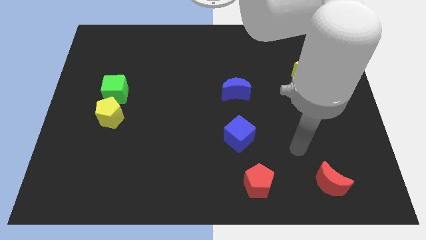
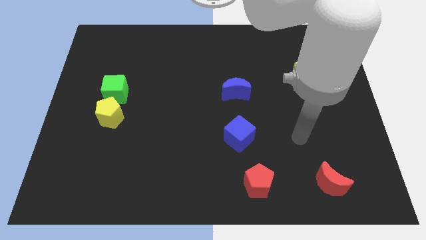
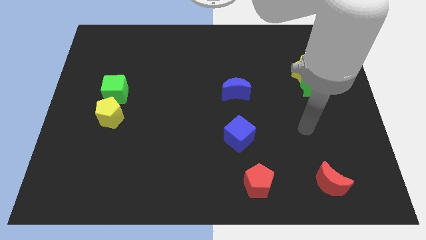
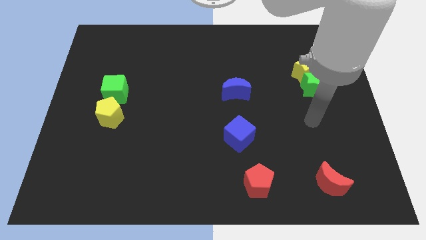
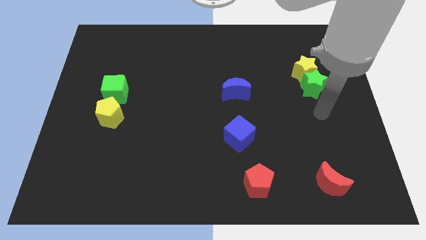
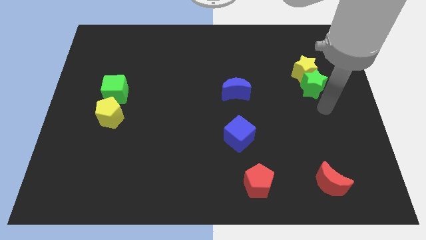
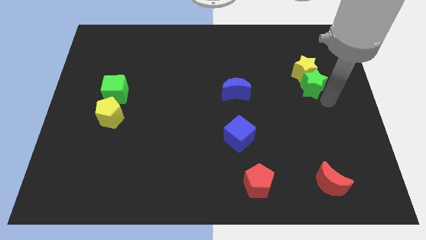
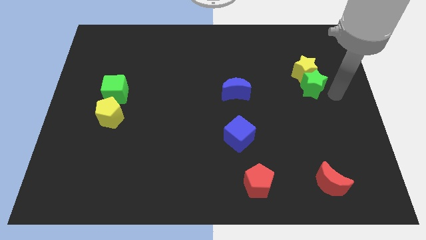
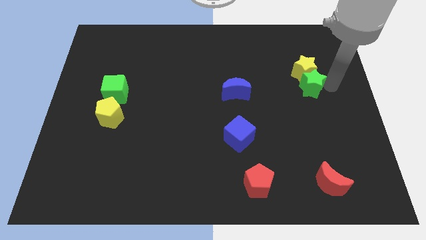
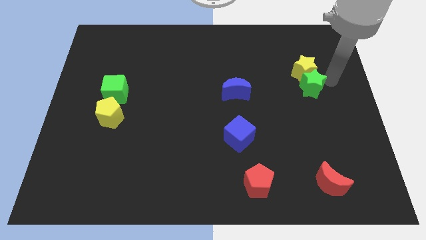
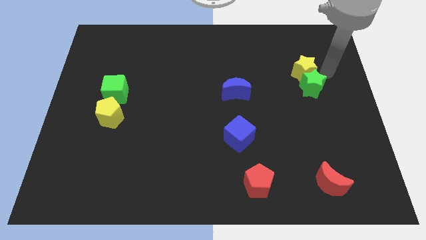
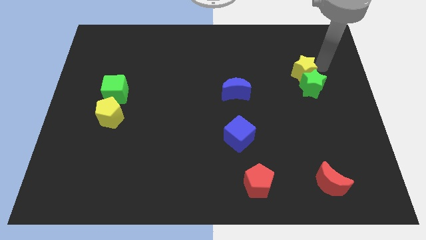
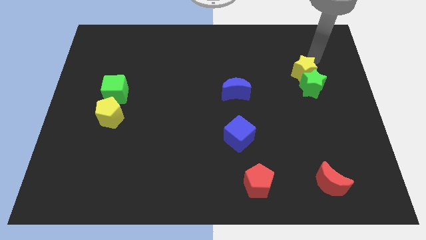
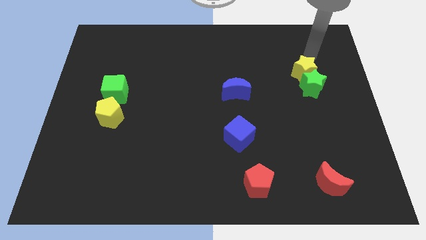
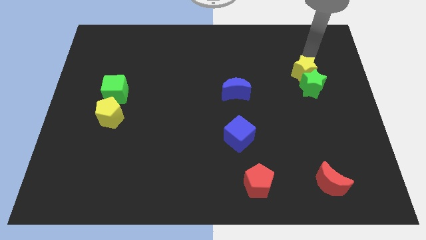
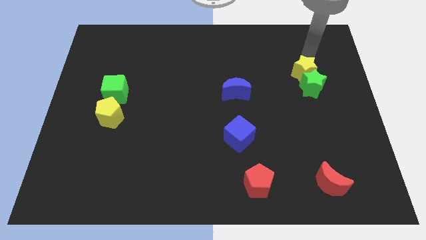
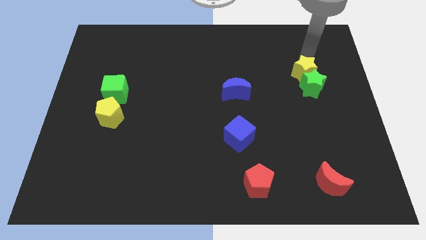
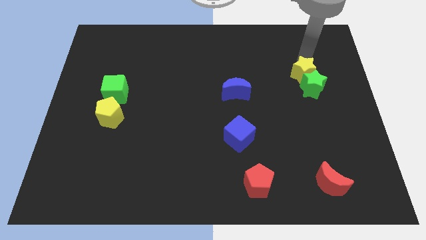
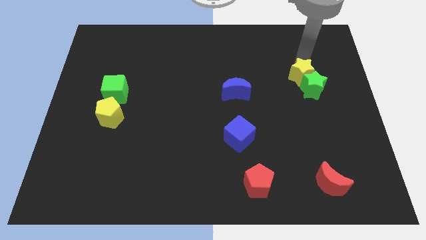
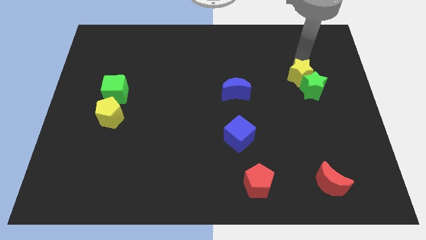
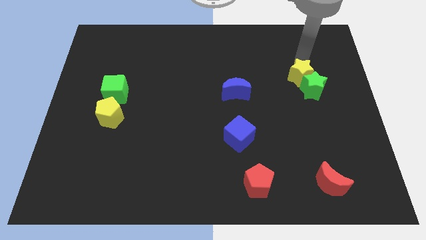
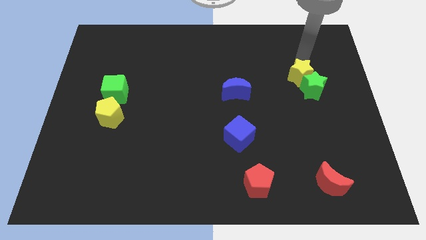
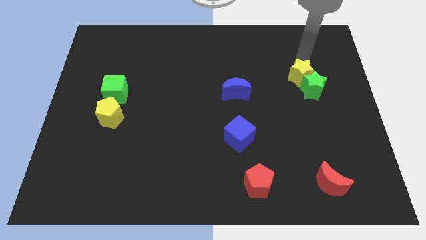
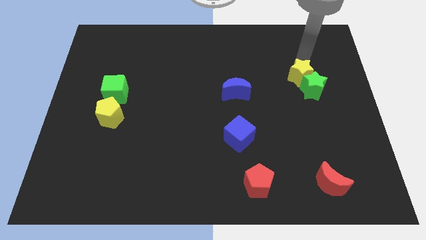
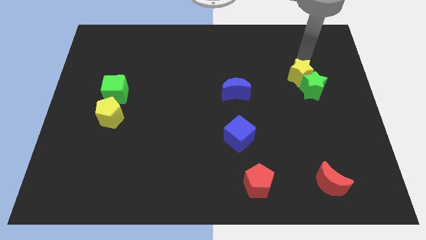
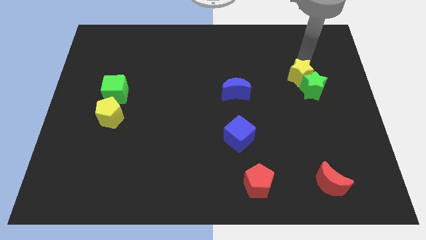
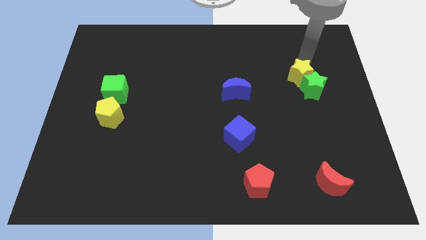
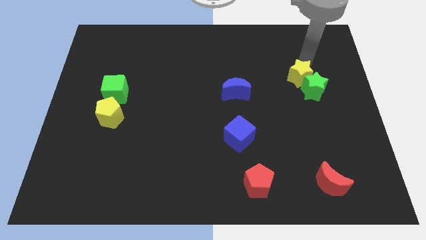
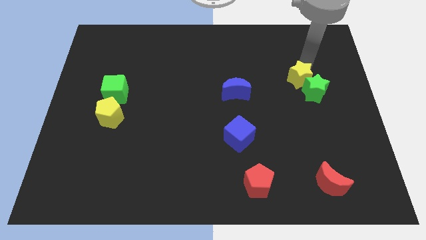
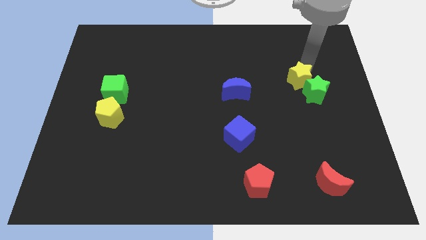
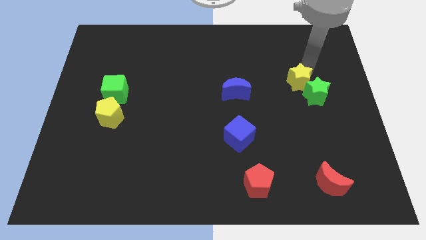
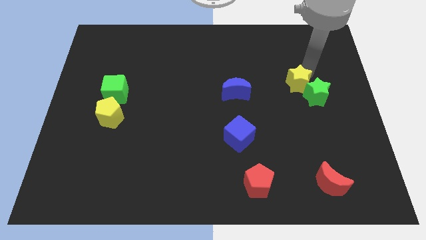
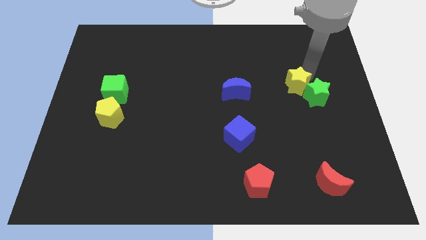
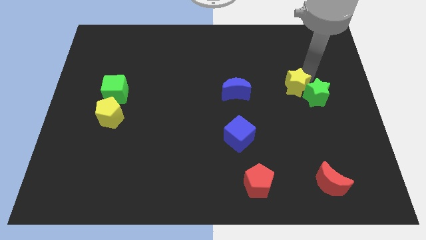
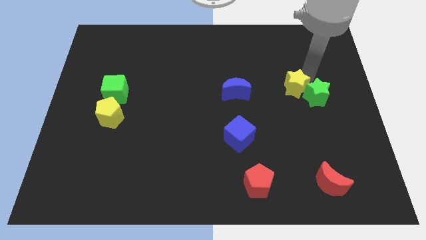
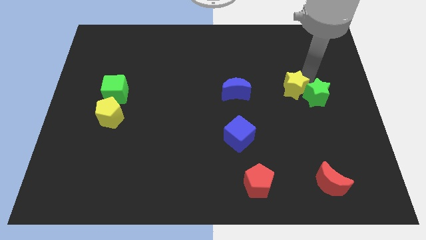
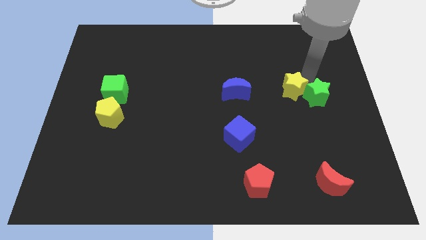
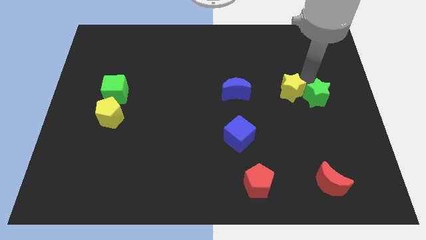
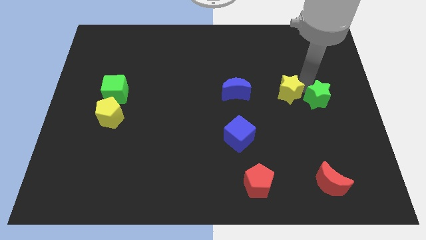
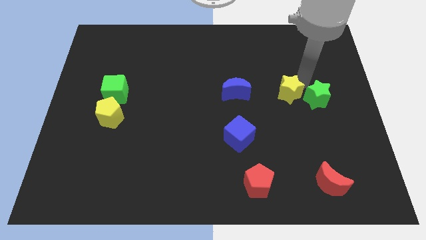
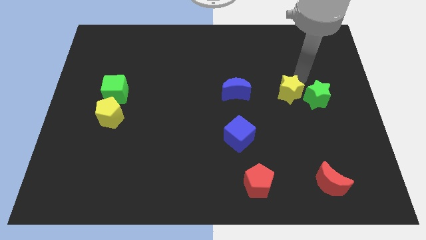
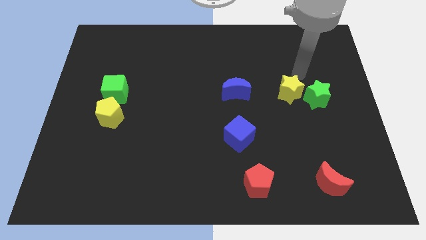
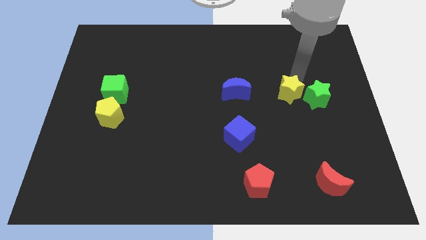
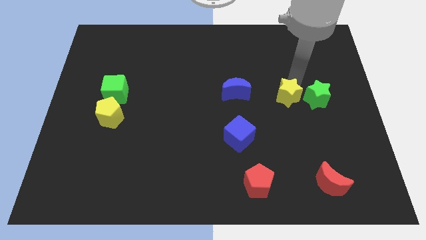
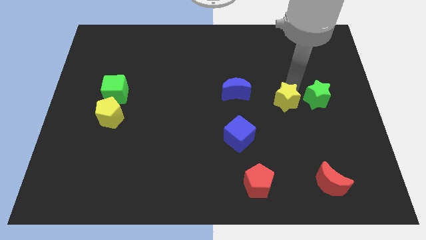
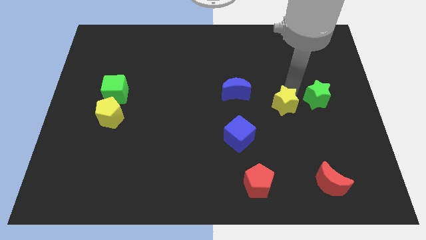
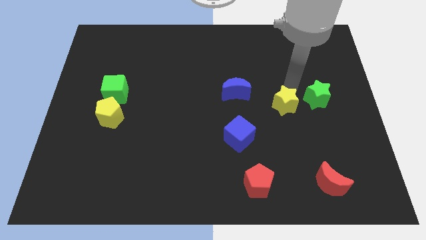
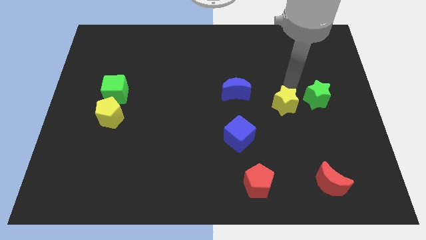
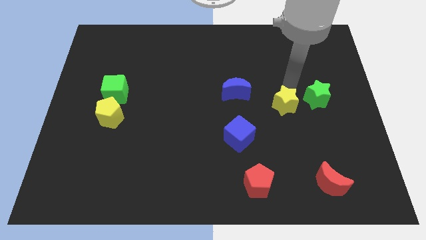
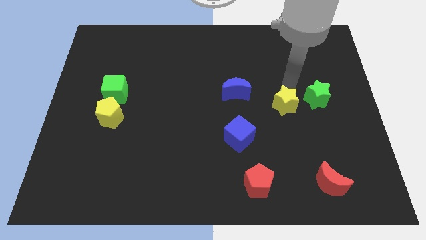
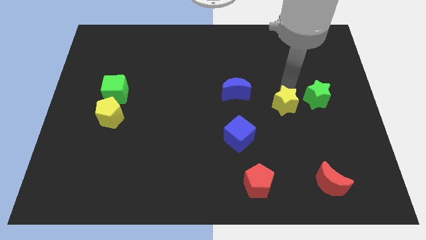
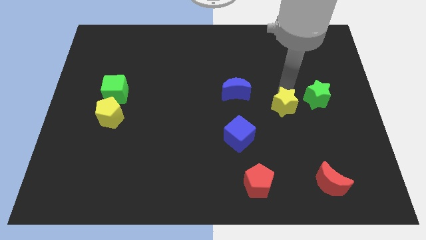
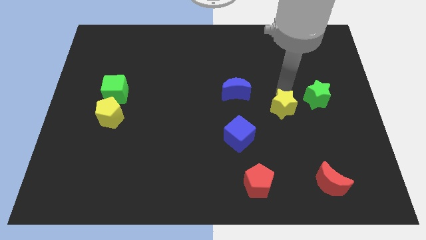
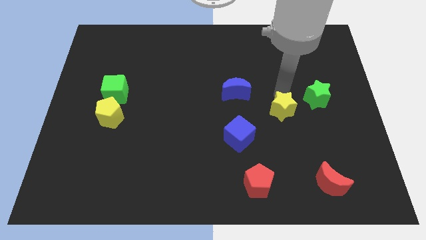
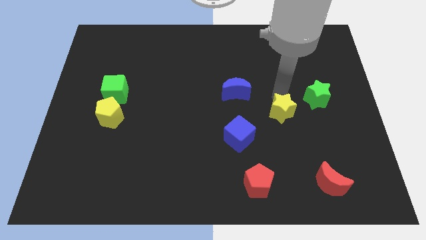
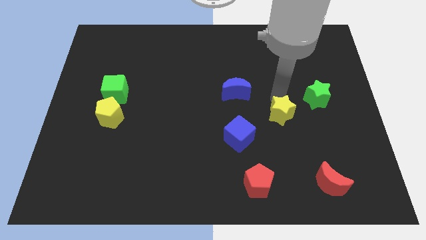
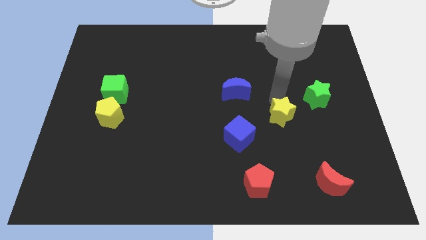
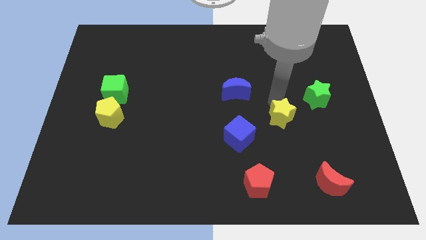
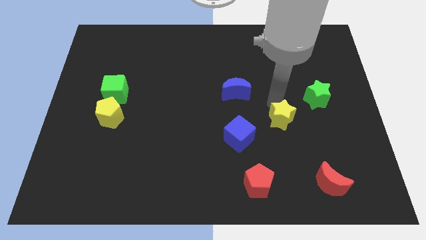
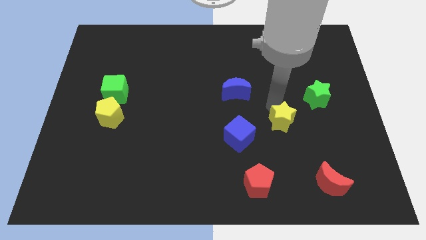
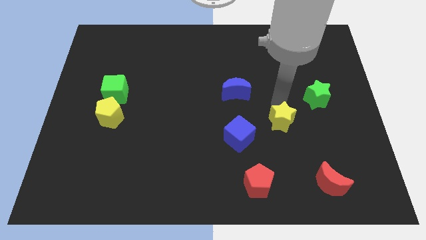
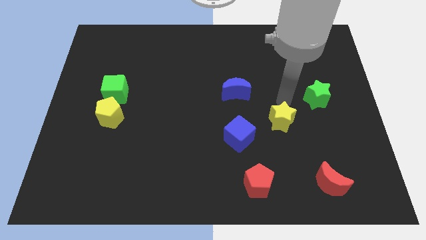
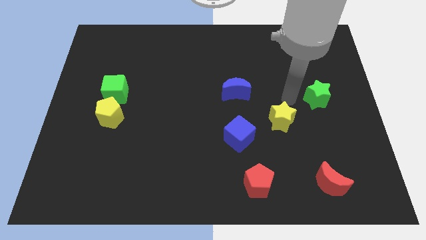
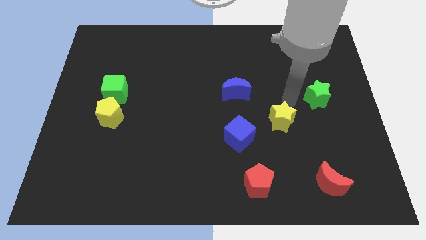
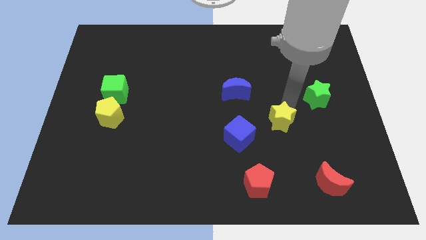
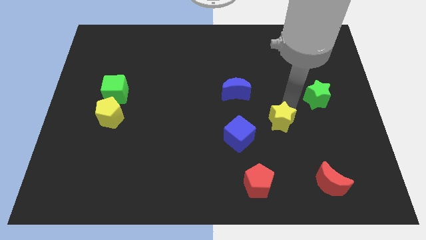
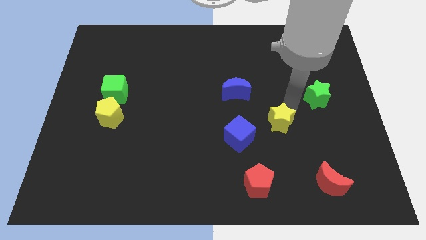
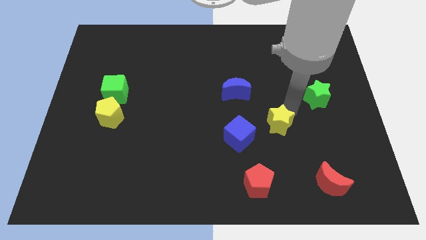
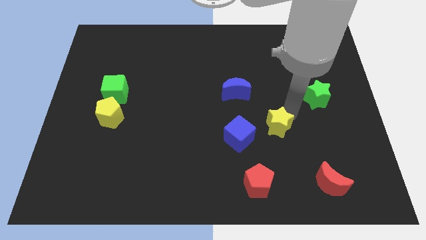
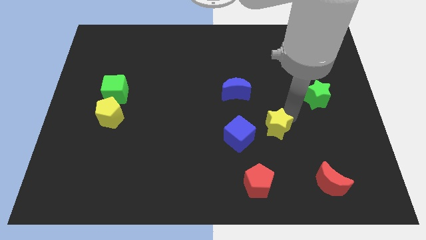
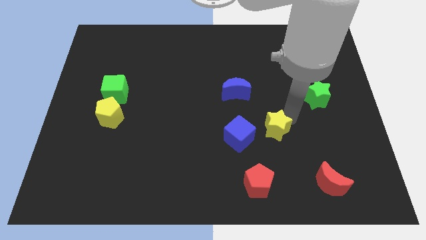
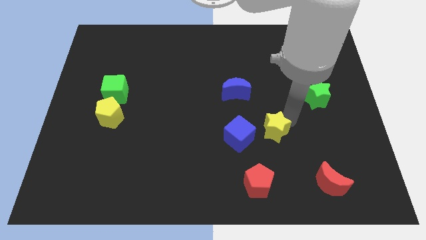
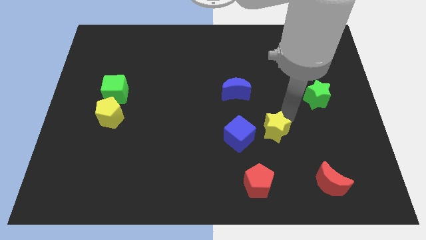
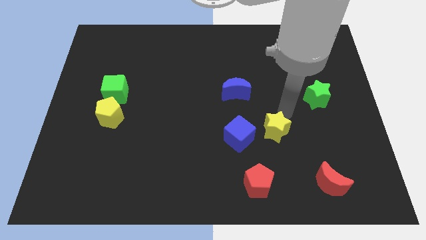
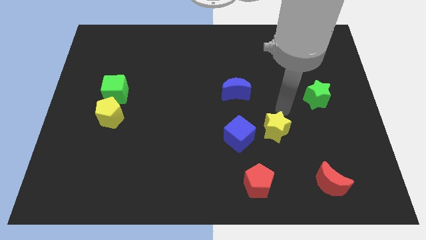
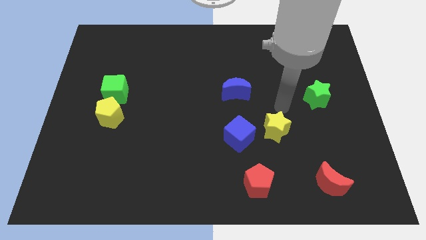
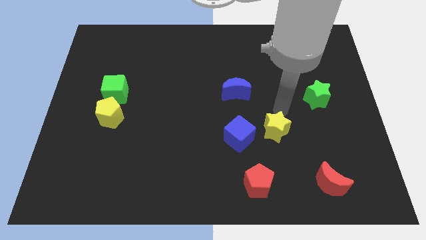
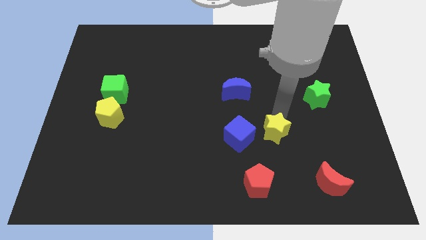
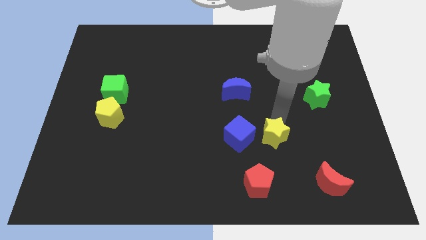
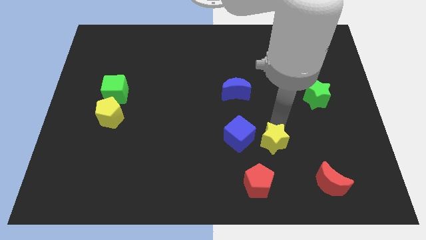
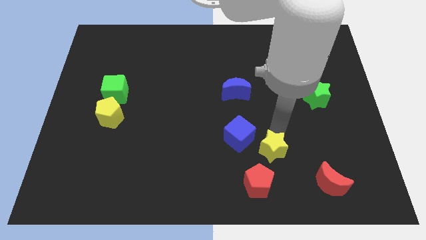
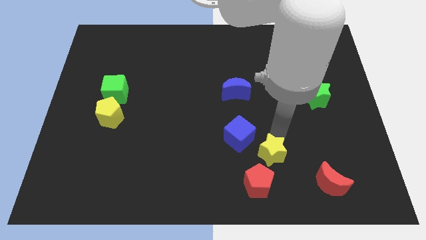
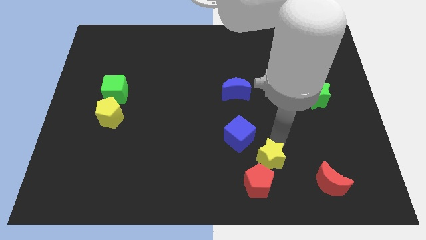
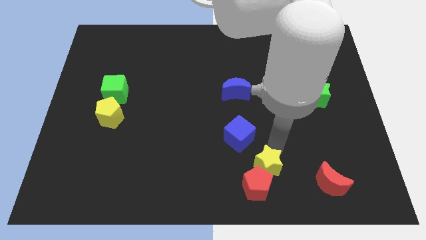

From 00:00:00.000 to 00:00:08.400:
put the yellow star to the red pentagon
